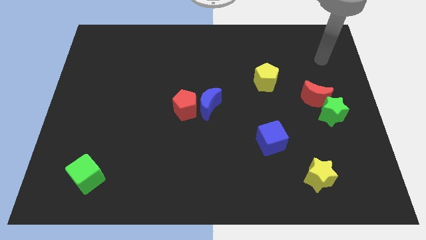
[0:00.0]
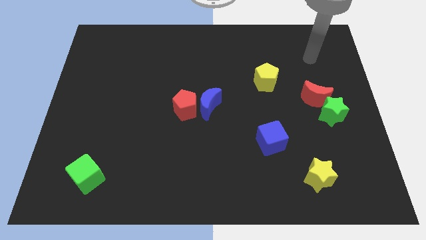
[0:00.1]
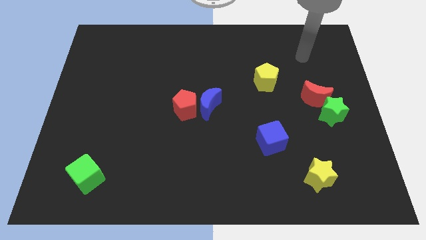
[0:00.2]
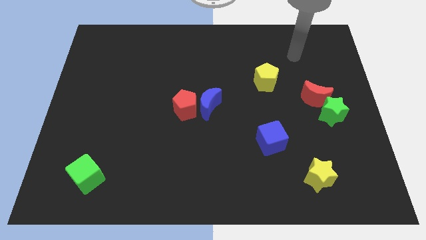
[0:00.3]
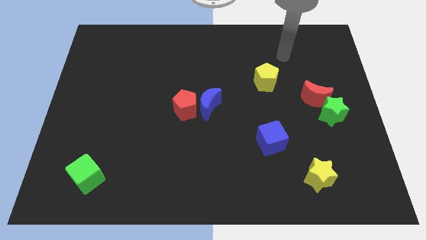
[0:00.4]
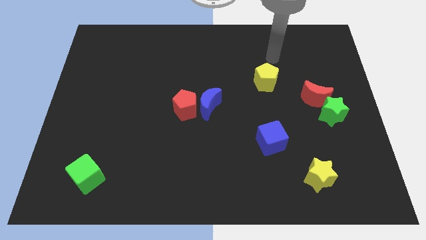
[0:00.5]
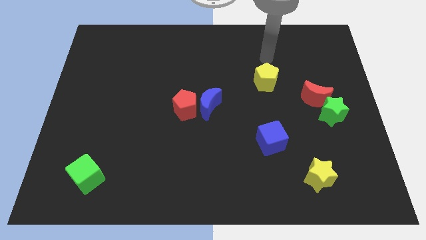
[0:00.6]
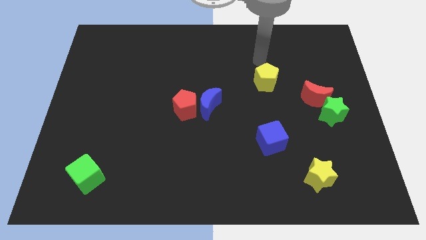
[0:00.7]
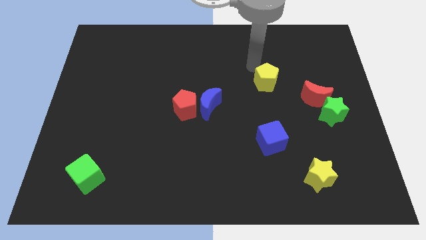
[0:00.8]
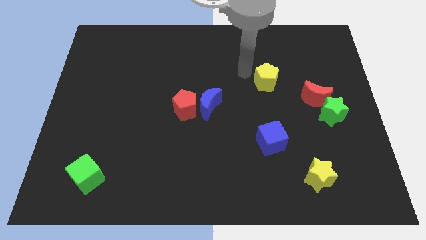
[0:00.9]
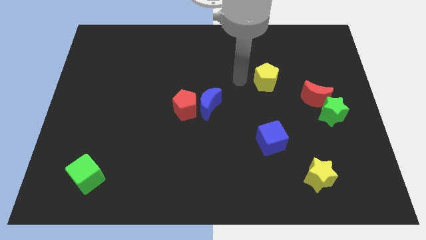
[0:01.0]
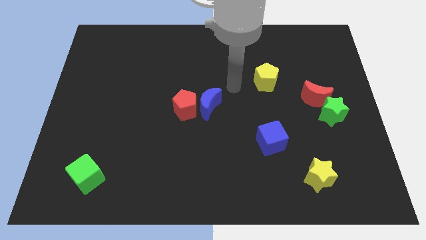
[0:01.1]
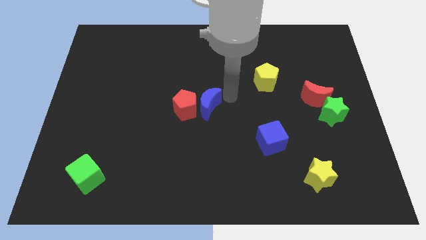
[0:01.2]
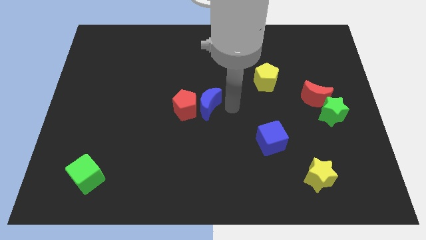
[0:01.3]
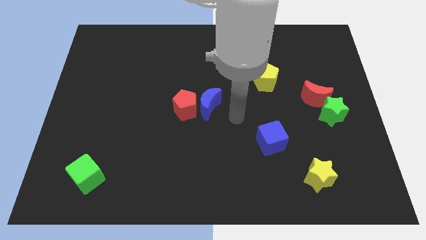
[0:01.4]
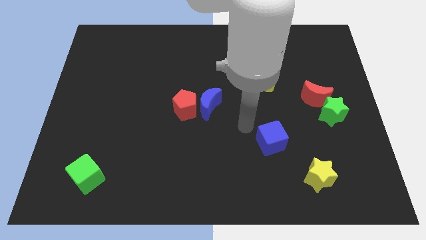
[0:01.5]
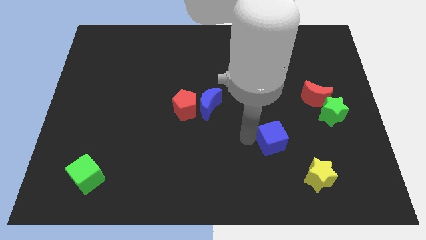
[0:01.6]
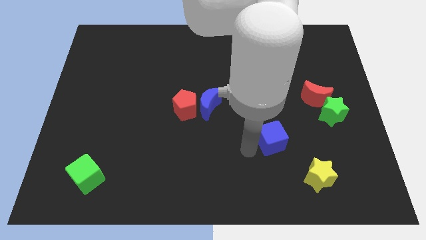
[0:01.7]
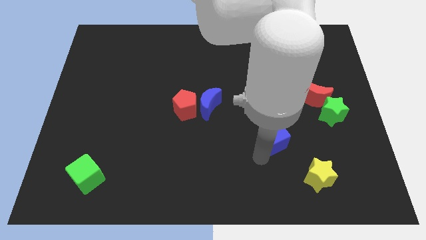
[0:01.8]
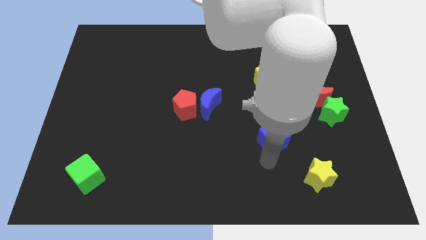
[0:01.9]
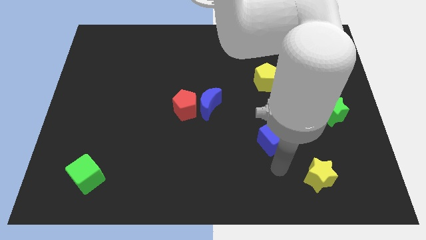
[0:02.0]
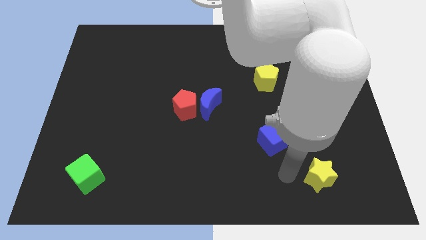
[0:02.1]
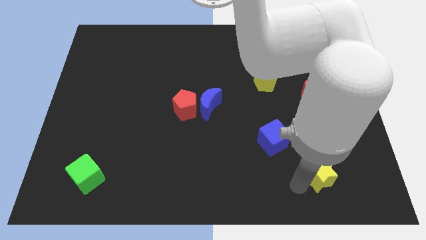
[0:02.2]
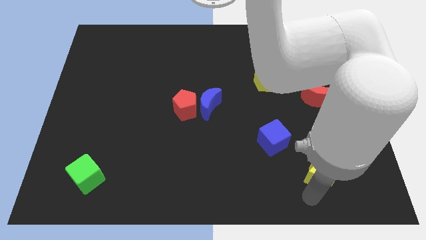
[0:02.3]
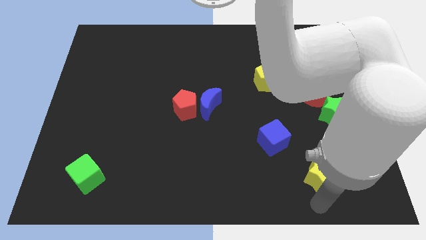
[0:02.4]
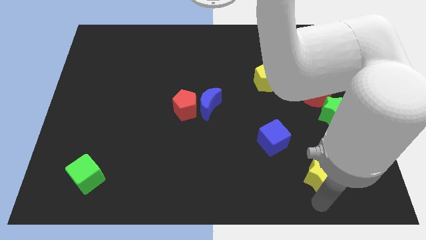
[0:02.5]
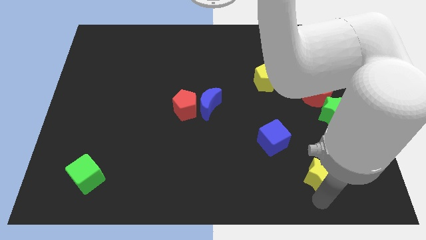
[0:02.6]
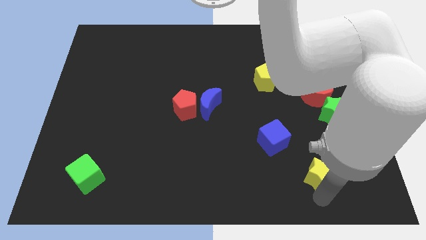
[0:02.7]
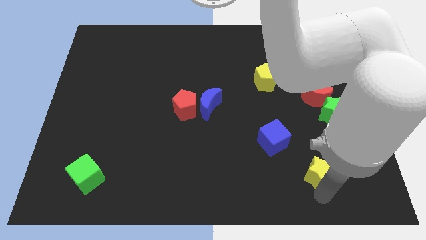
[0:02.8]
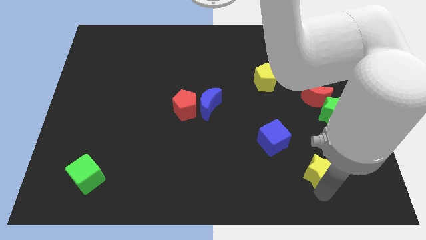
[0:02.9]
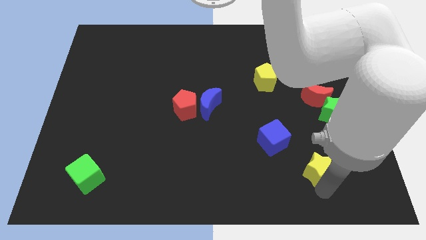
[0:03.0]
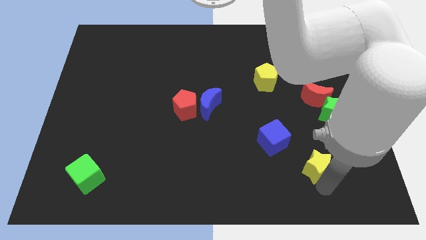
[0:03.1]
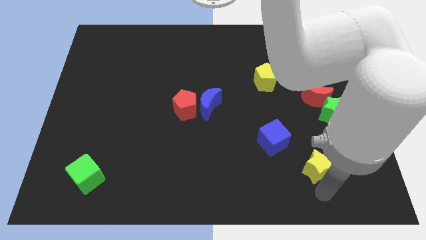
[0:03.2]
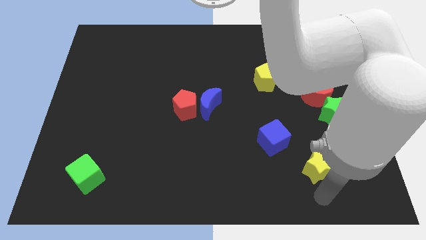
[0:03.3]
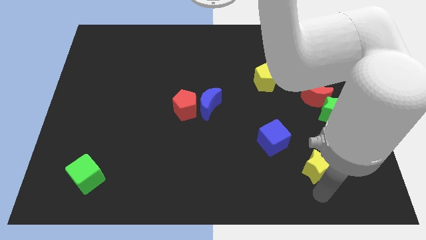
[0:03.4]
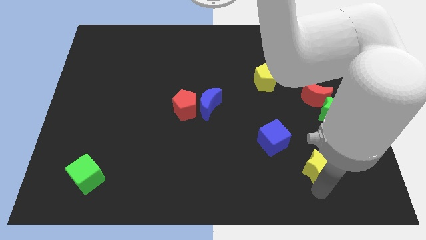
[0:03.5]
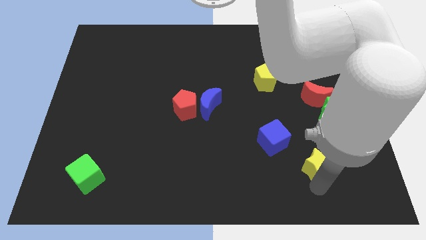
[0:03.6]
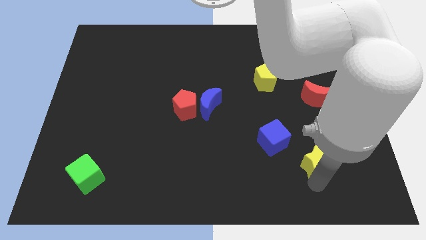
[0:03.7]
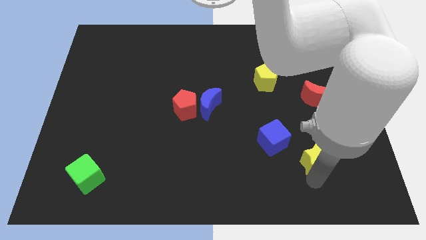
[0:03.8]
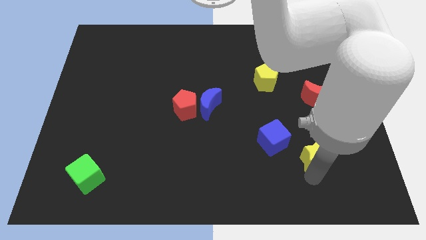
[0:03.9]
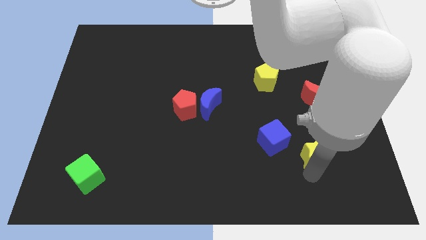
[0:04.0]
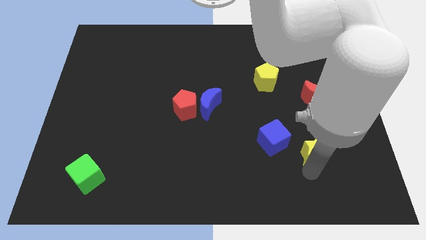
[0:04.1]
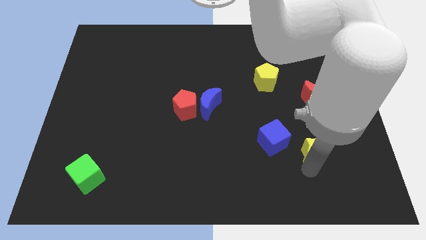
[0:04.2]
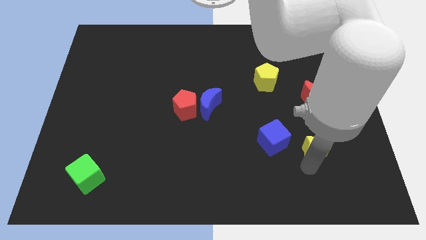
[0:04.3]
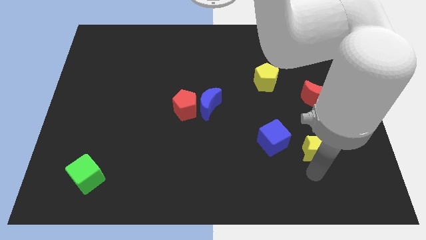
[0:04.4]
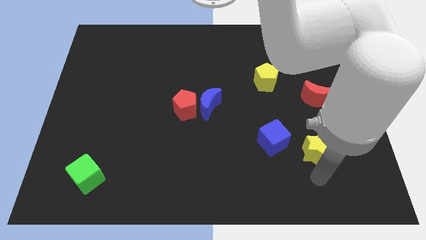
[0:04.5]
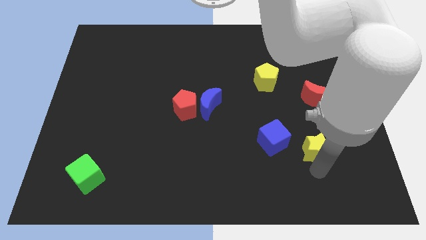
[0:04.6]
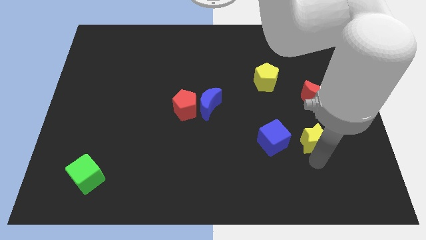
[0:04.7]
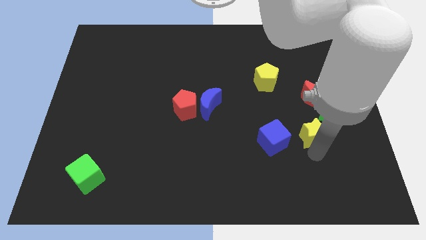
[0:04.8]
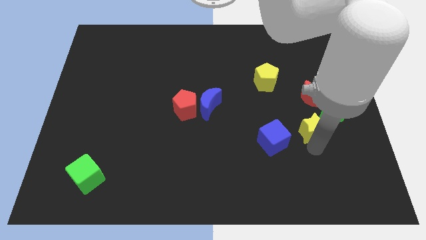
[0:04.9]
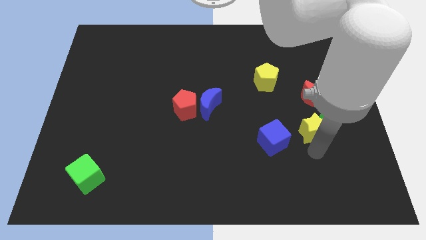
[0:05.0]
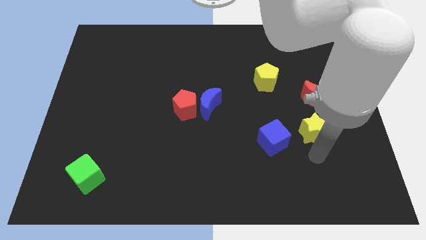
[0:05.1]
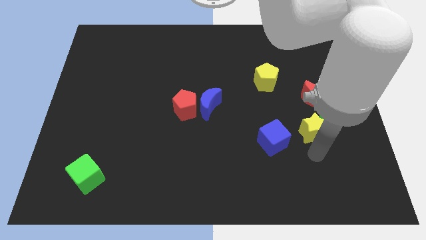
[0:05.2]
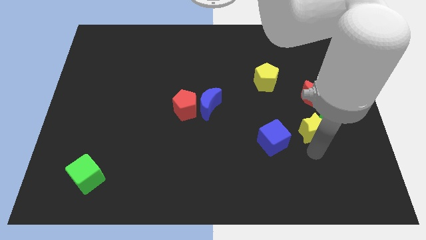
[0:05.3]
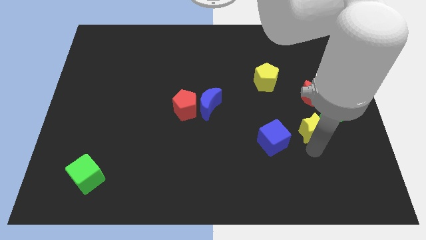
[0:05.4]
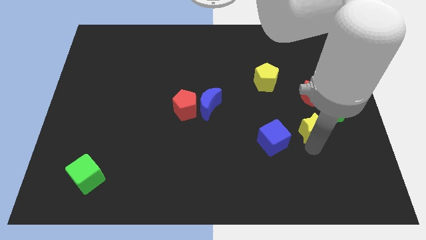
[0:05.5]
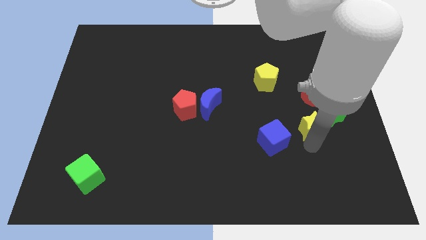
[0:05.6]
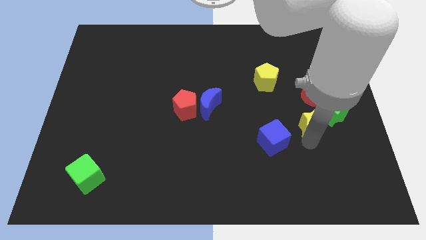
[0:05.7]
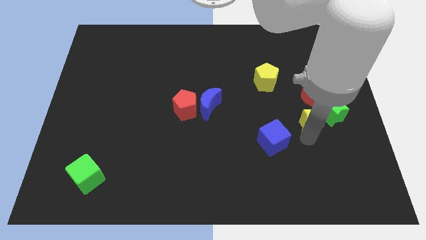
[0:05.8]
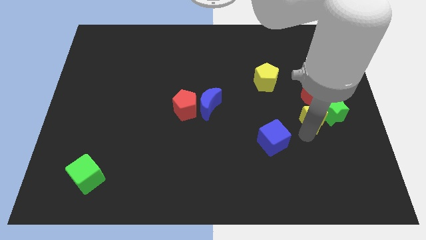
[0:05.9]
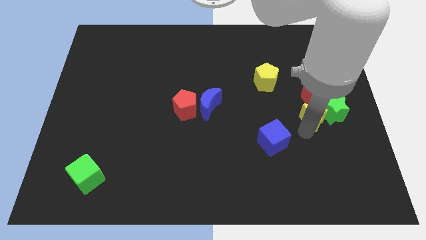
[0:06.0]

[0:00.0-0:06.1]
slide the yellow star next to the red moon

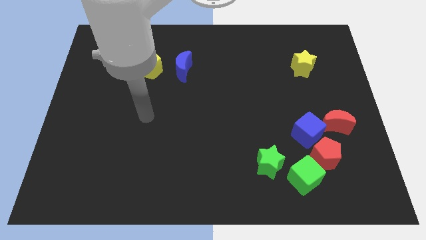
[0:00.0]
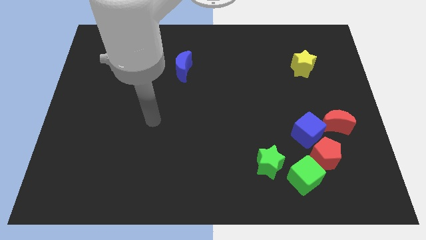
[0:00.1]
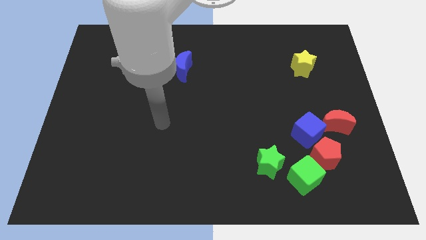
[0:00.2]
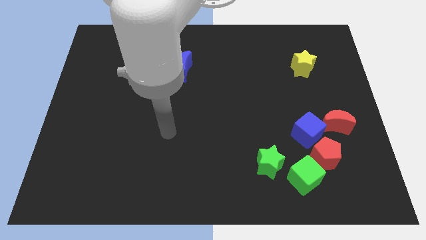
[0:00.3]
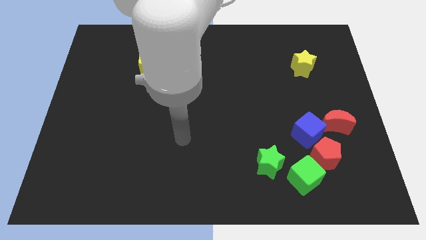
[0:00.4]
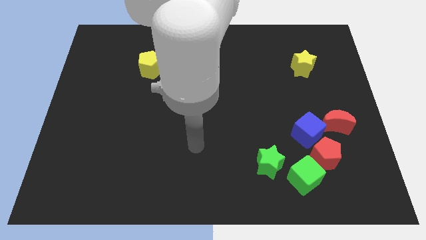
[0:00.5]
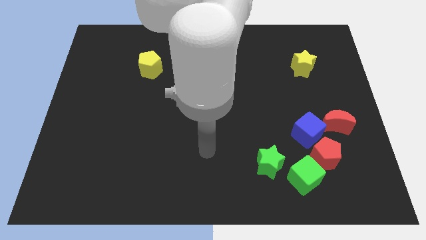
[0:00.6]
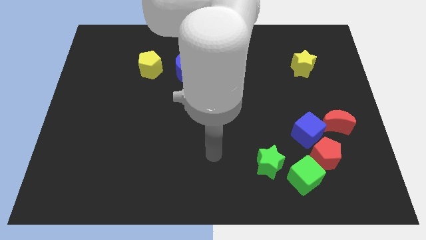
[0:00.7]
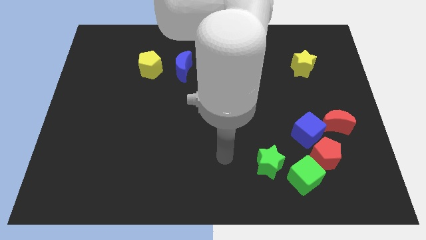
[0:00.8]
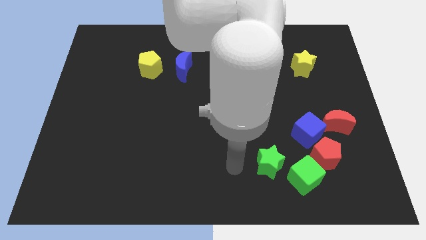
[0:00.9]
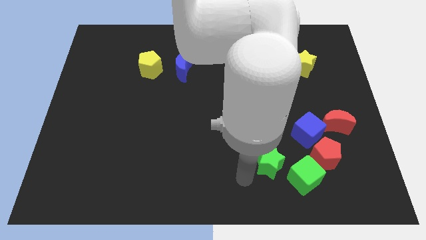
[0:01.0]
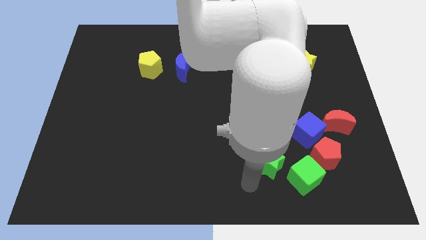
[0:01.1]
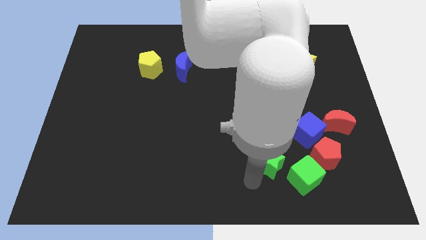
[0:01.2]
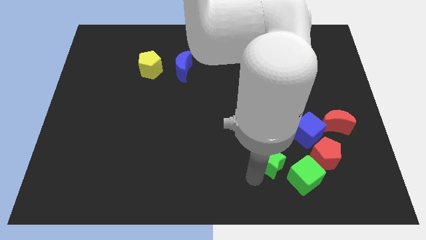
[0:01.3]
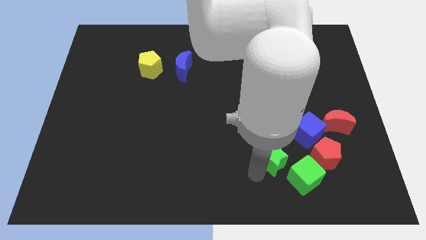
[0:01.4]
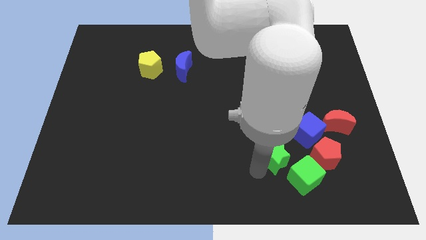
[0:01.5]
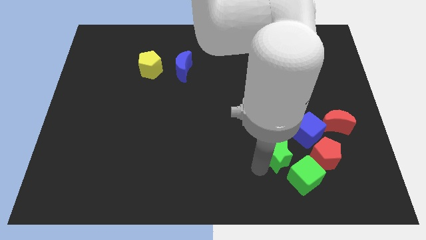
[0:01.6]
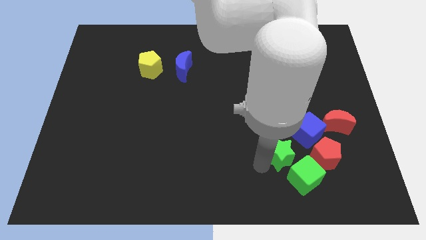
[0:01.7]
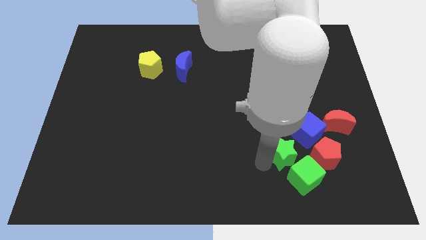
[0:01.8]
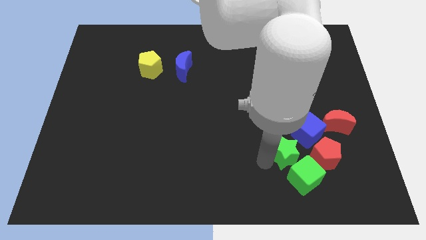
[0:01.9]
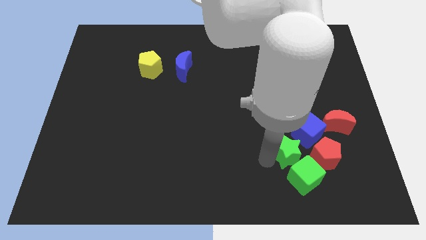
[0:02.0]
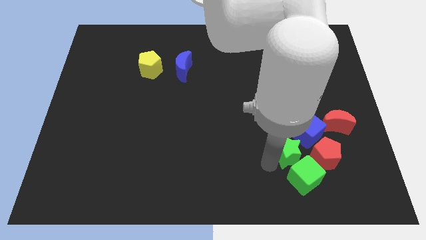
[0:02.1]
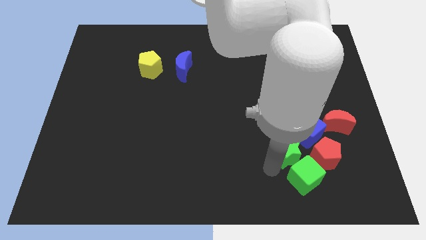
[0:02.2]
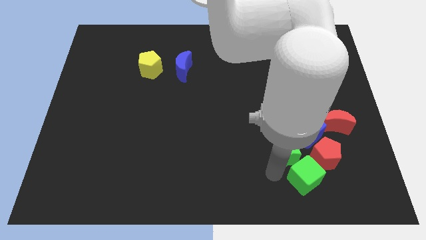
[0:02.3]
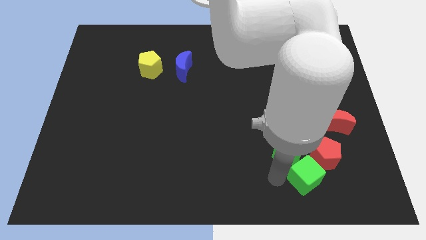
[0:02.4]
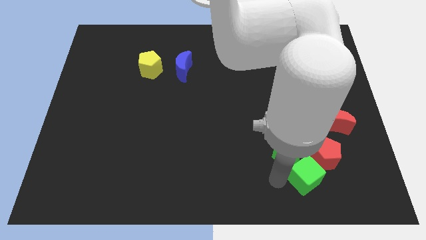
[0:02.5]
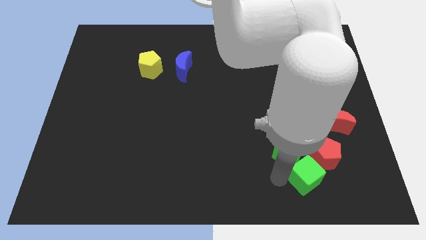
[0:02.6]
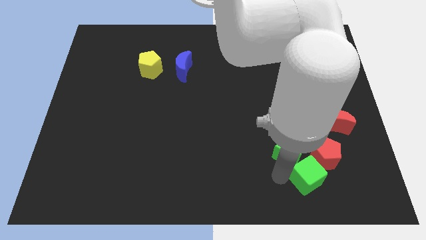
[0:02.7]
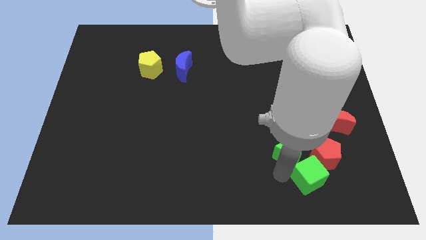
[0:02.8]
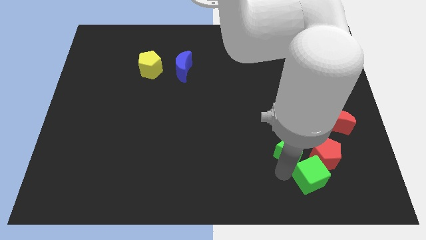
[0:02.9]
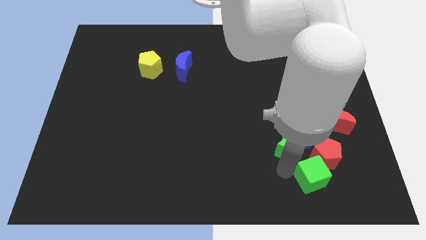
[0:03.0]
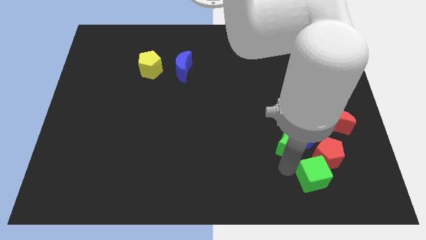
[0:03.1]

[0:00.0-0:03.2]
push the green star to the blue cube
